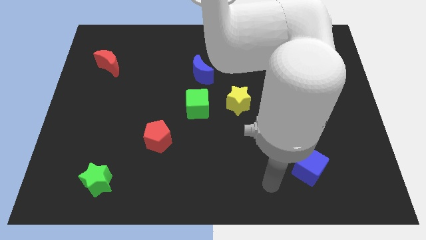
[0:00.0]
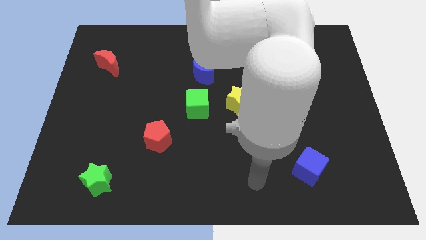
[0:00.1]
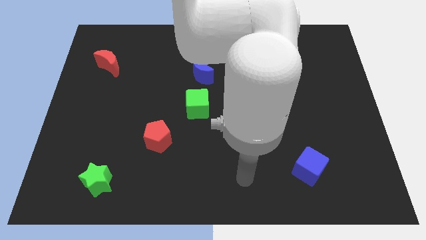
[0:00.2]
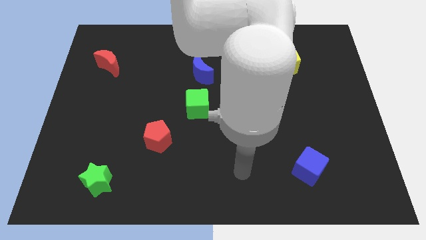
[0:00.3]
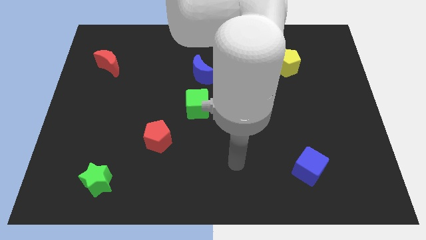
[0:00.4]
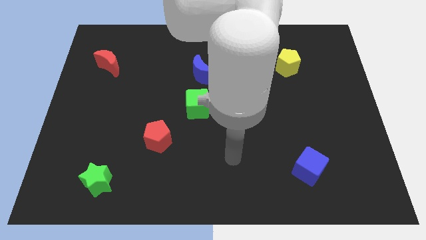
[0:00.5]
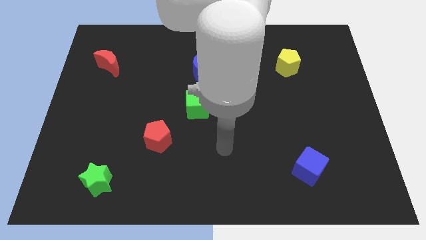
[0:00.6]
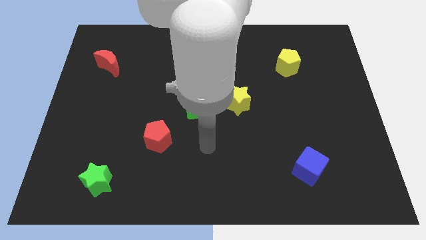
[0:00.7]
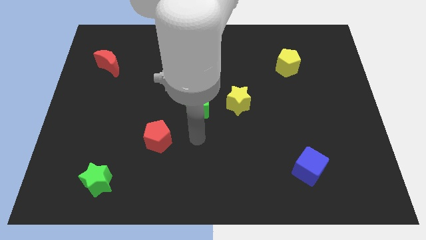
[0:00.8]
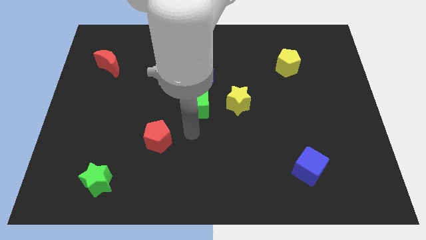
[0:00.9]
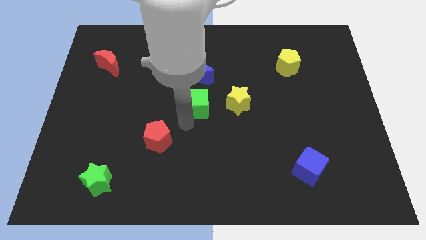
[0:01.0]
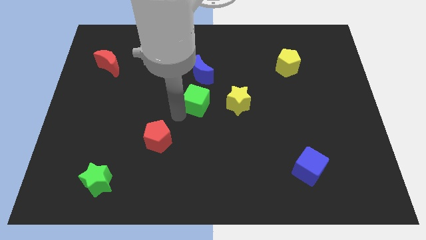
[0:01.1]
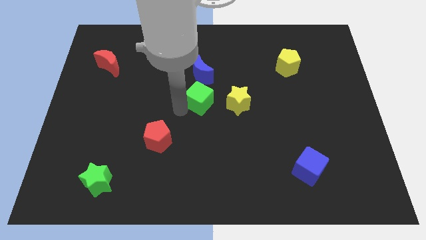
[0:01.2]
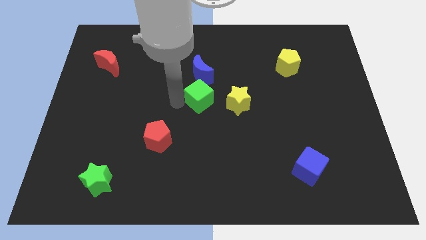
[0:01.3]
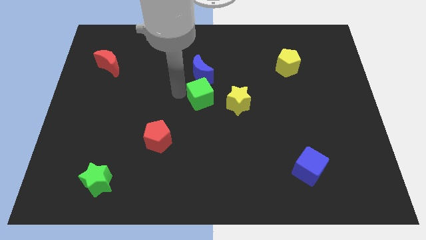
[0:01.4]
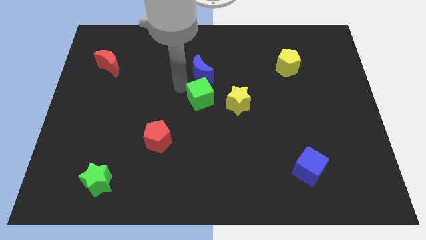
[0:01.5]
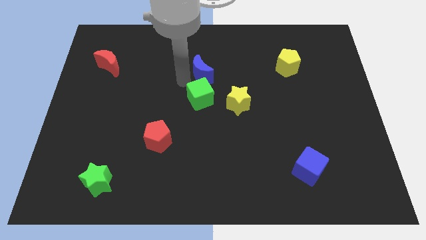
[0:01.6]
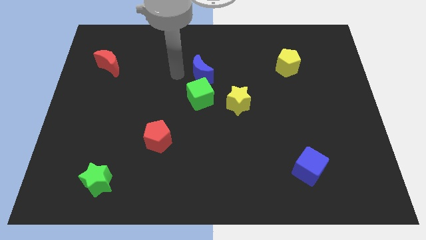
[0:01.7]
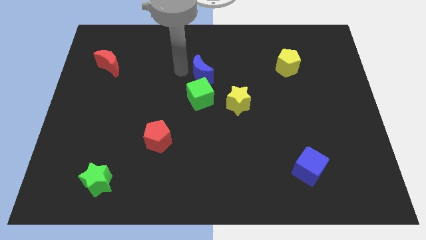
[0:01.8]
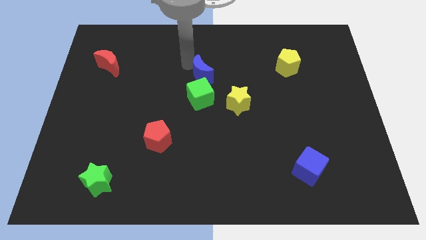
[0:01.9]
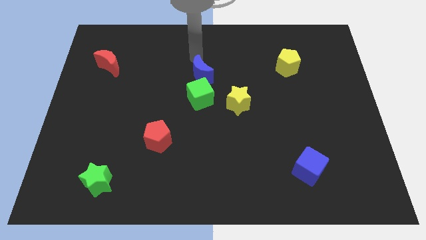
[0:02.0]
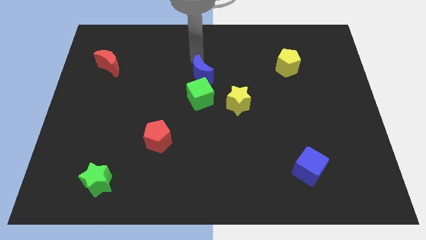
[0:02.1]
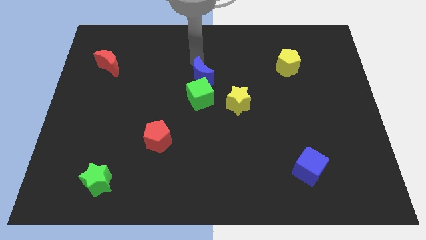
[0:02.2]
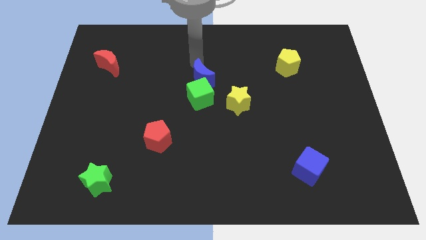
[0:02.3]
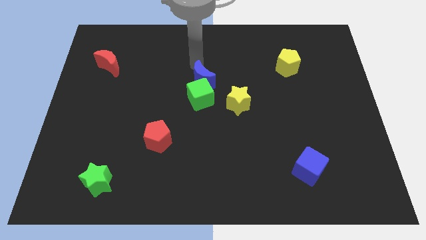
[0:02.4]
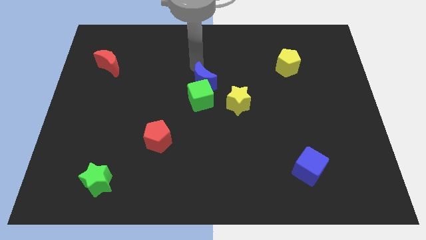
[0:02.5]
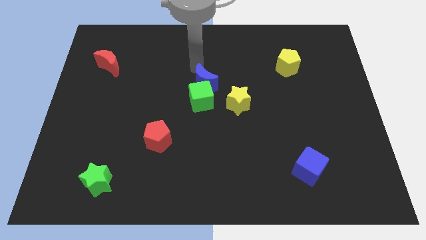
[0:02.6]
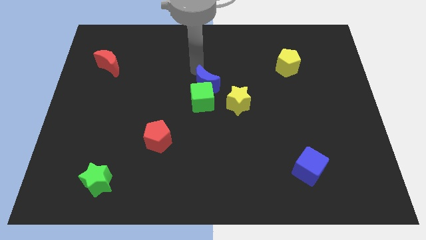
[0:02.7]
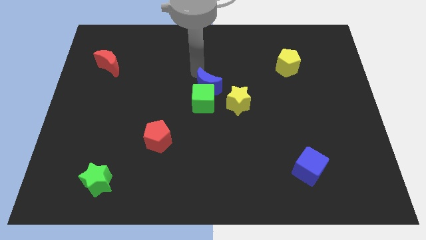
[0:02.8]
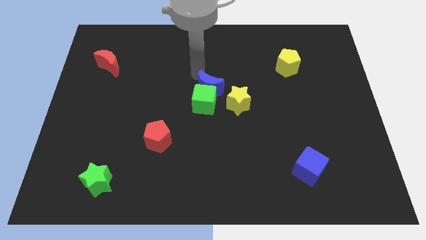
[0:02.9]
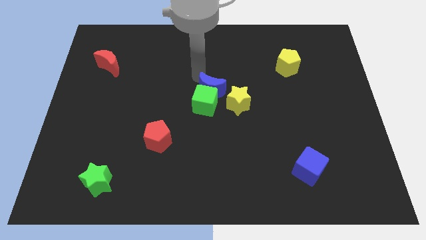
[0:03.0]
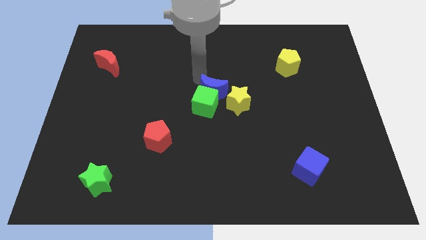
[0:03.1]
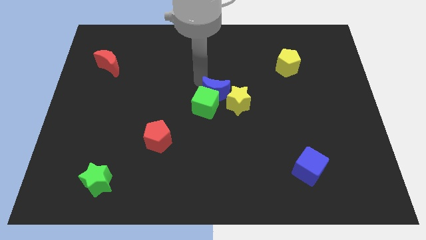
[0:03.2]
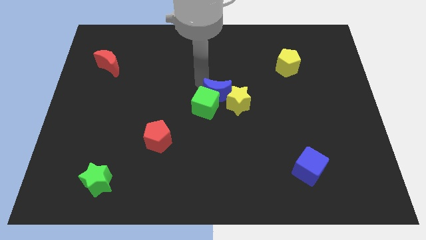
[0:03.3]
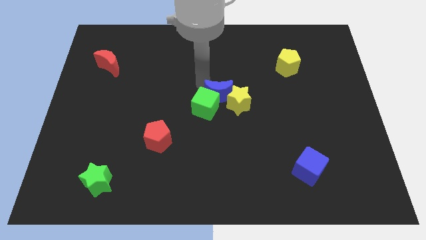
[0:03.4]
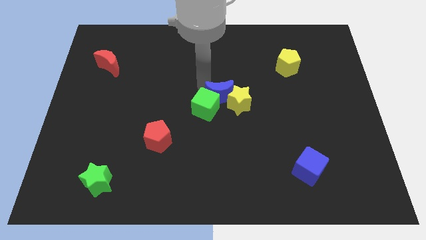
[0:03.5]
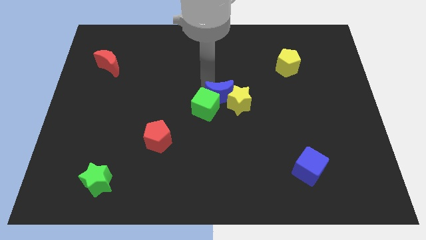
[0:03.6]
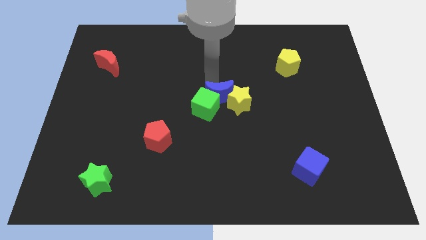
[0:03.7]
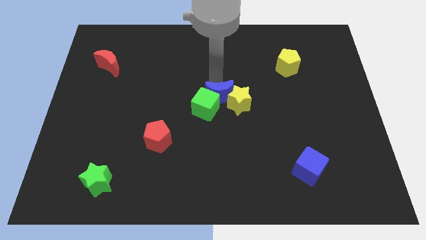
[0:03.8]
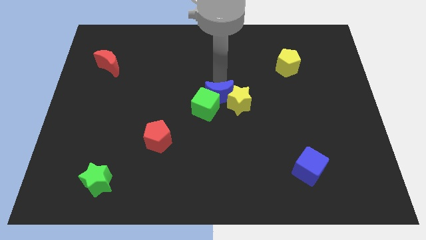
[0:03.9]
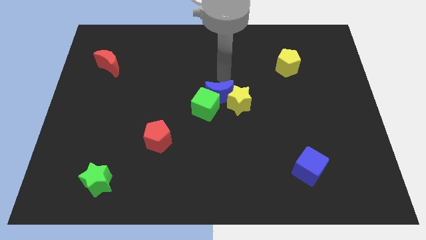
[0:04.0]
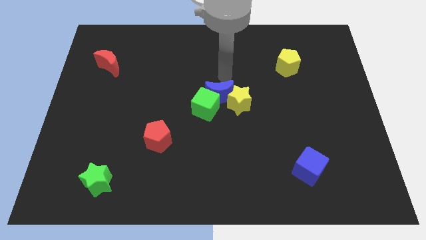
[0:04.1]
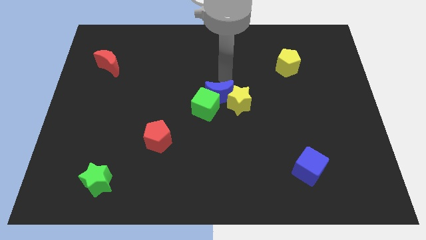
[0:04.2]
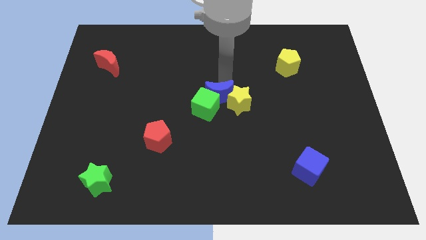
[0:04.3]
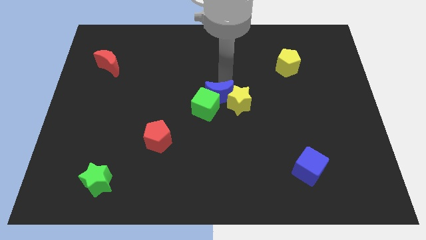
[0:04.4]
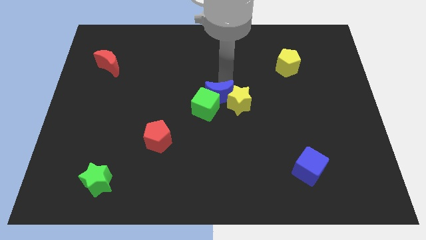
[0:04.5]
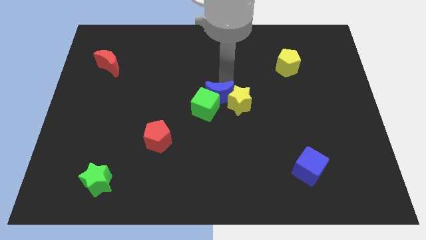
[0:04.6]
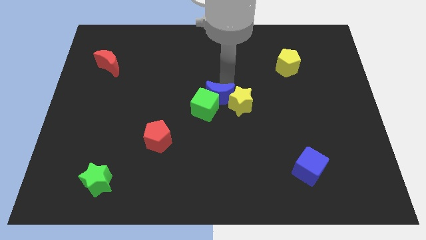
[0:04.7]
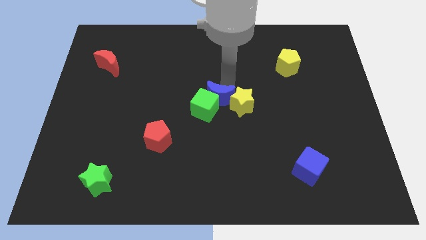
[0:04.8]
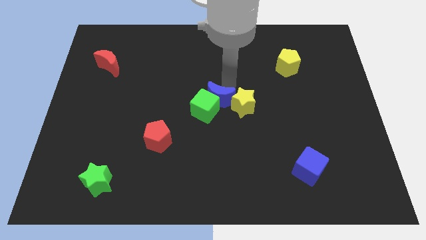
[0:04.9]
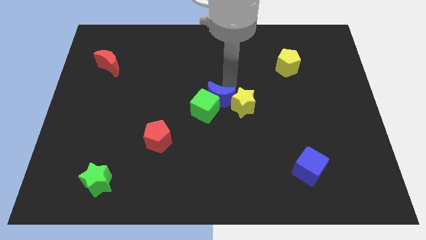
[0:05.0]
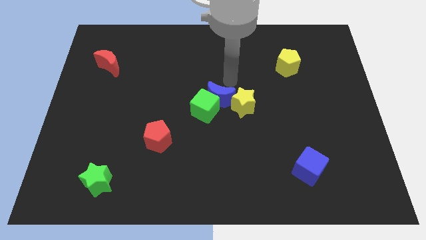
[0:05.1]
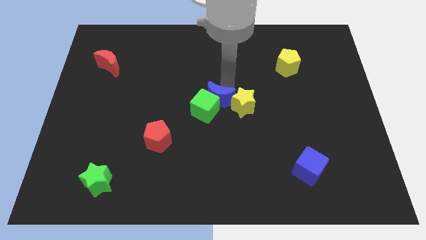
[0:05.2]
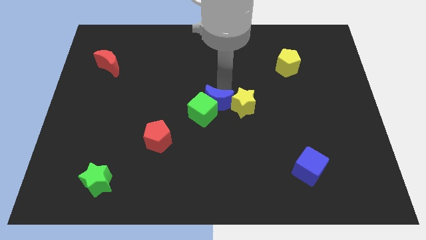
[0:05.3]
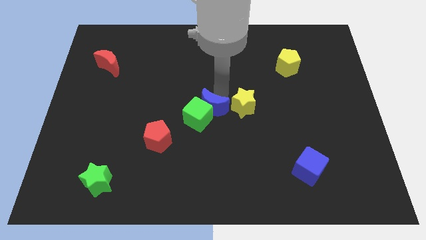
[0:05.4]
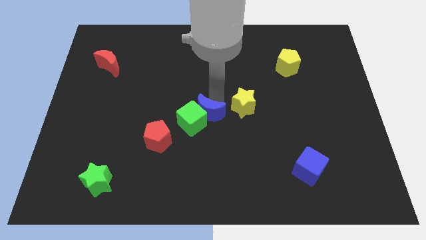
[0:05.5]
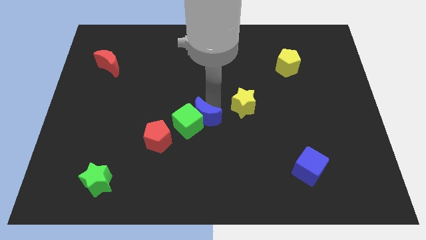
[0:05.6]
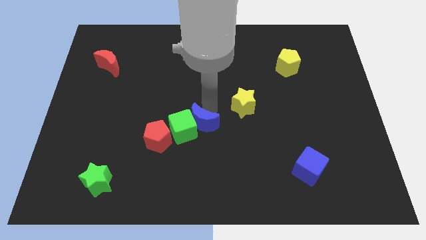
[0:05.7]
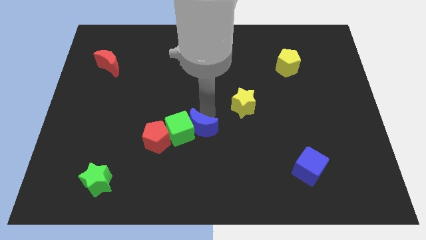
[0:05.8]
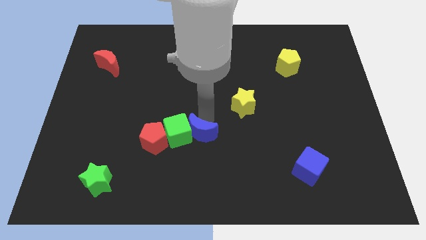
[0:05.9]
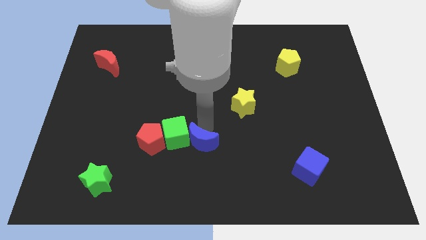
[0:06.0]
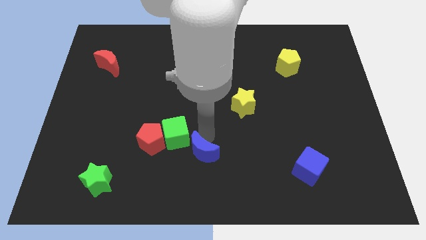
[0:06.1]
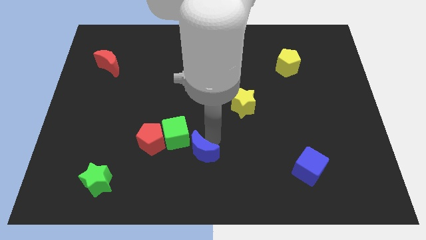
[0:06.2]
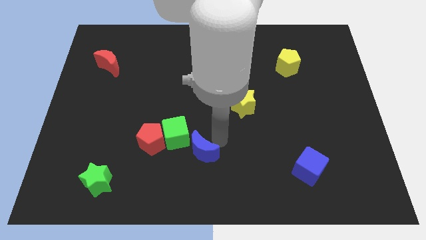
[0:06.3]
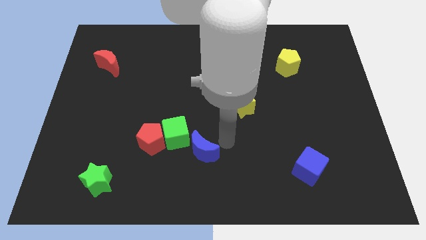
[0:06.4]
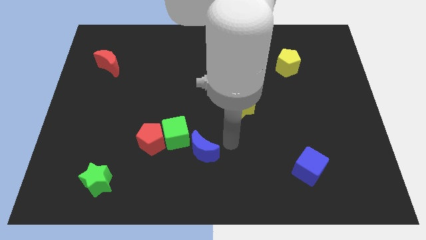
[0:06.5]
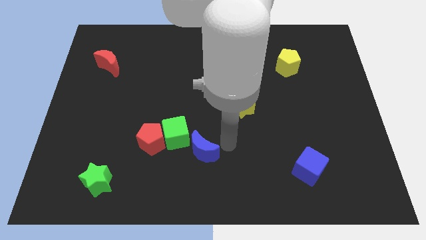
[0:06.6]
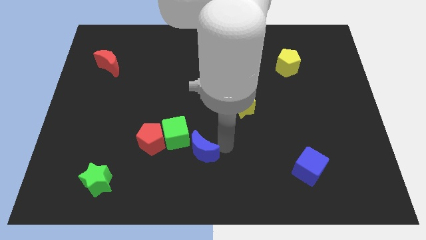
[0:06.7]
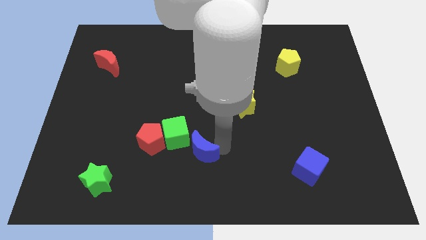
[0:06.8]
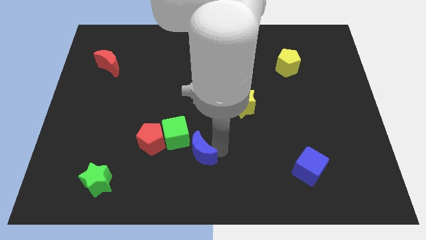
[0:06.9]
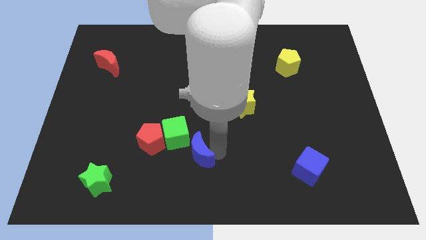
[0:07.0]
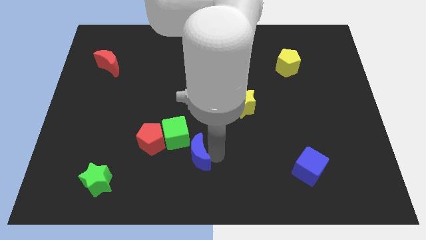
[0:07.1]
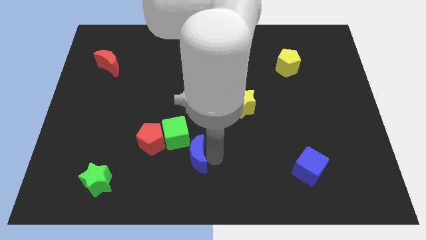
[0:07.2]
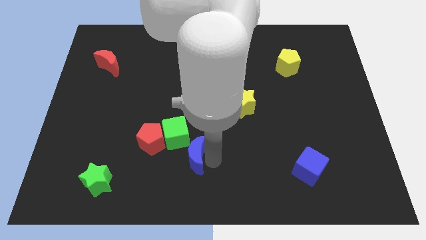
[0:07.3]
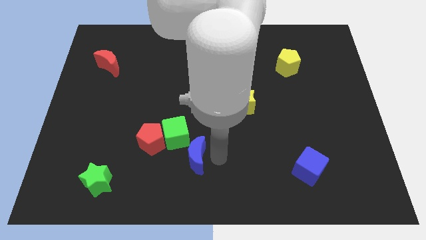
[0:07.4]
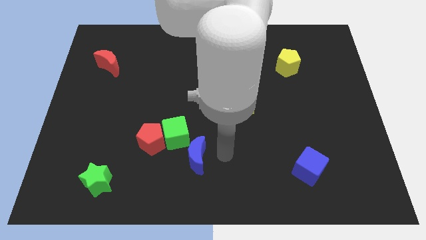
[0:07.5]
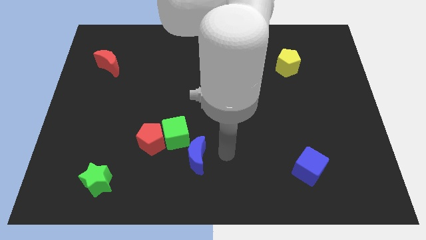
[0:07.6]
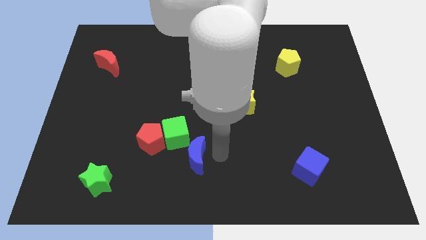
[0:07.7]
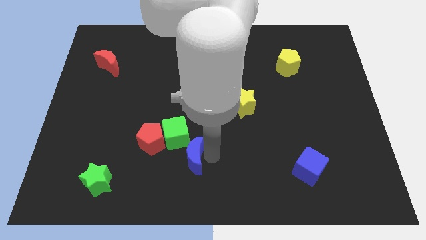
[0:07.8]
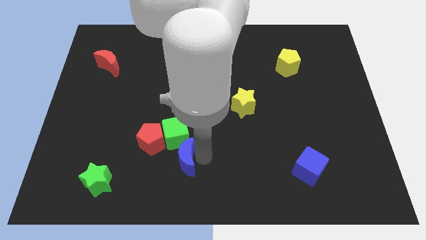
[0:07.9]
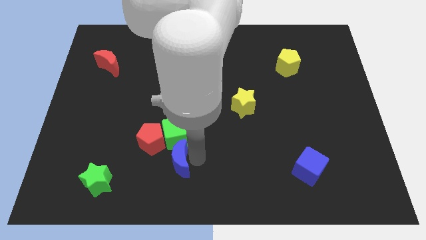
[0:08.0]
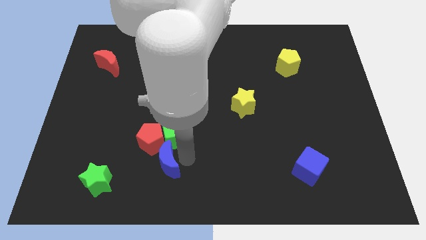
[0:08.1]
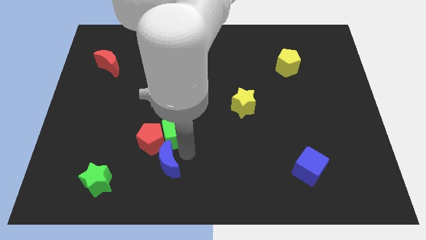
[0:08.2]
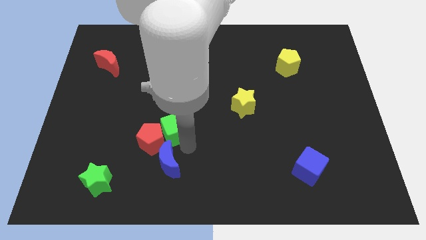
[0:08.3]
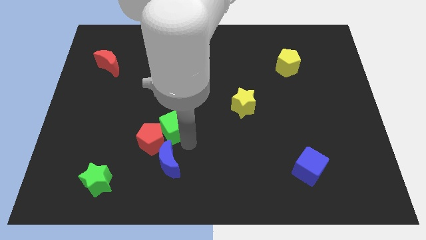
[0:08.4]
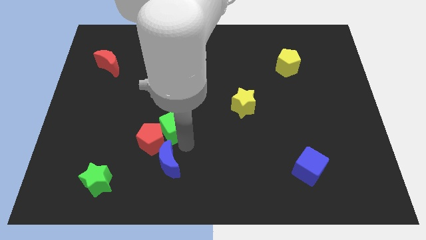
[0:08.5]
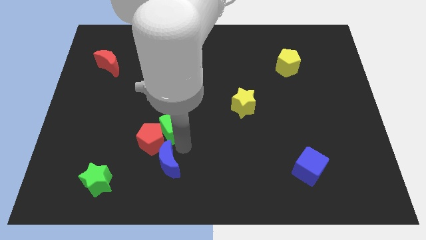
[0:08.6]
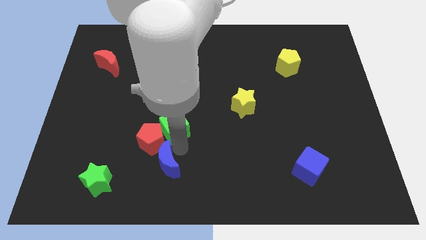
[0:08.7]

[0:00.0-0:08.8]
slide the blue moon right of the green star
